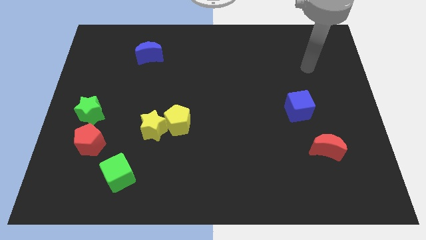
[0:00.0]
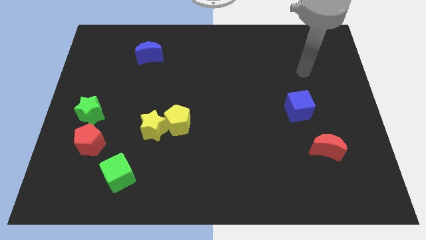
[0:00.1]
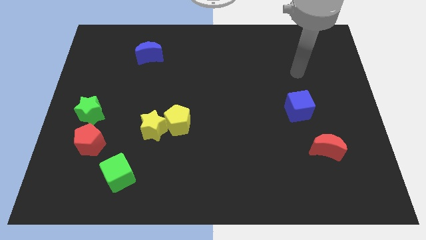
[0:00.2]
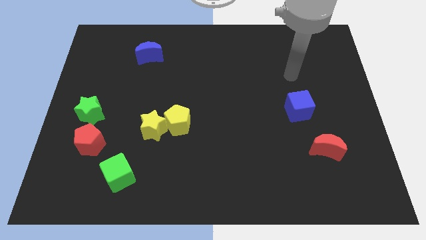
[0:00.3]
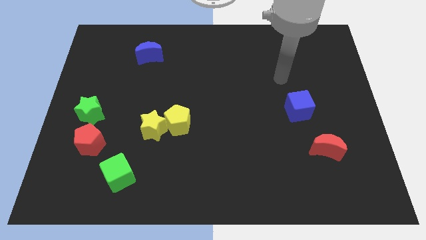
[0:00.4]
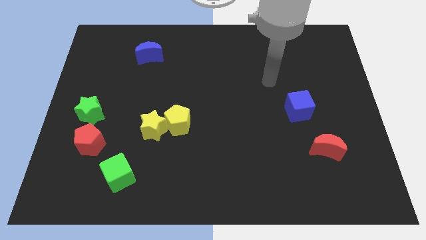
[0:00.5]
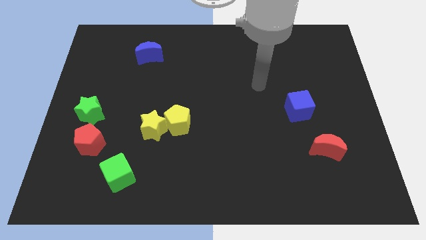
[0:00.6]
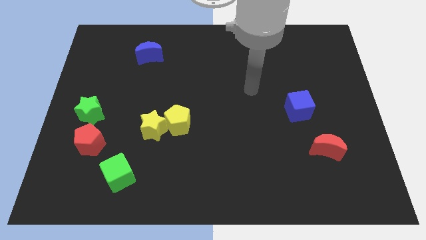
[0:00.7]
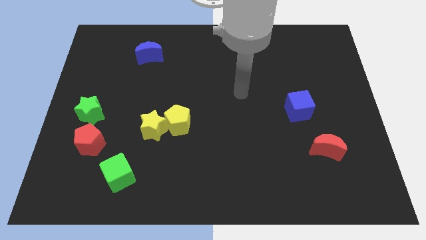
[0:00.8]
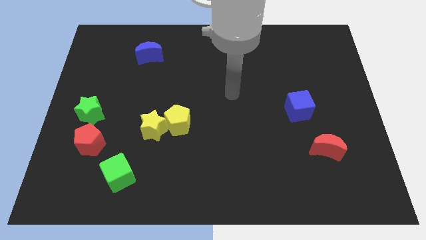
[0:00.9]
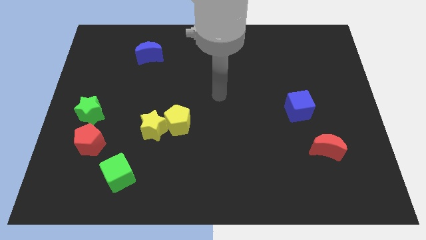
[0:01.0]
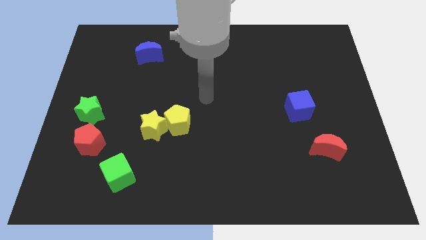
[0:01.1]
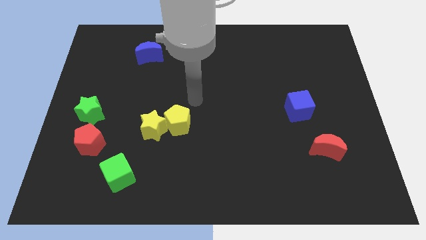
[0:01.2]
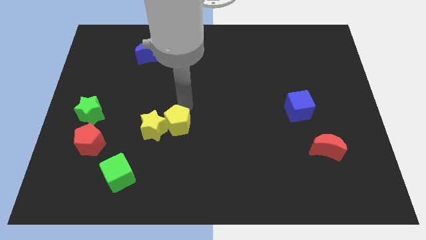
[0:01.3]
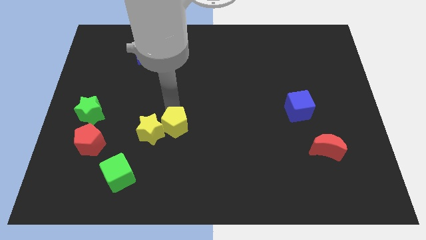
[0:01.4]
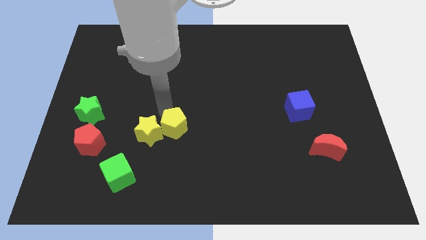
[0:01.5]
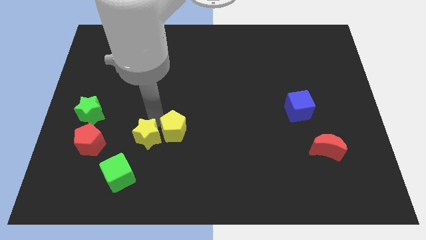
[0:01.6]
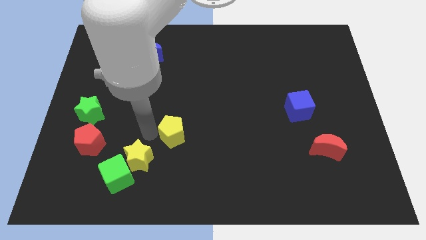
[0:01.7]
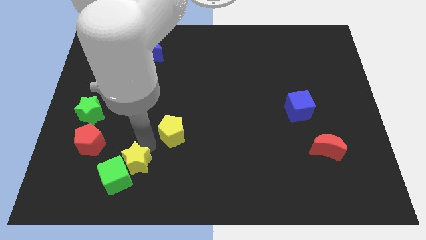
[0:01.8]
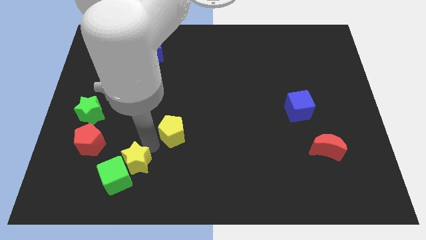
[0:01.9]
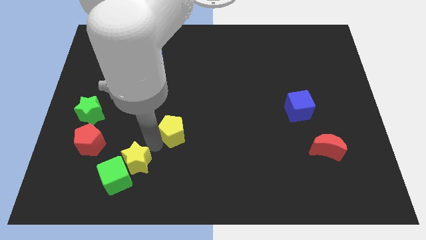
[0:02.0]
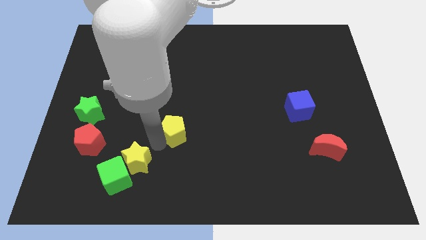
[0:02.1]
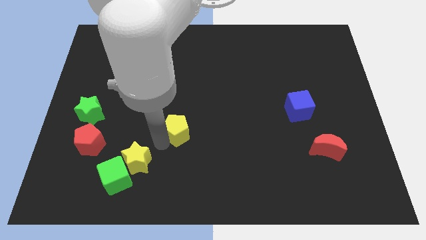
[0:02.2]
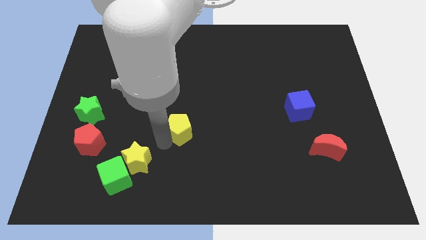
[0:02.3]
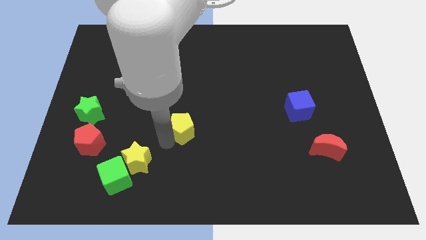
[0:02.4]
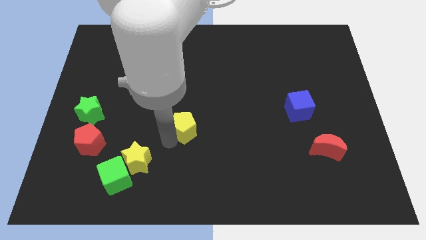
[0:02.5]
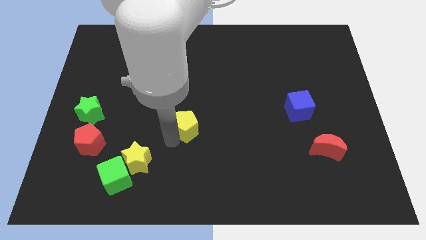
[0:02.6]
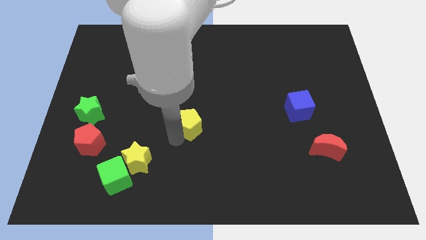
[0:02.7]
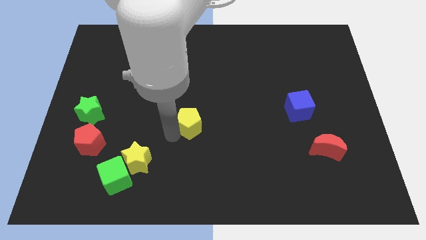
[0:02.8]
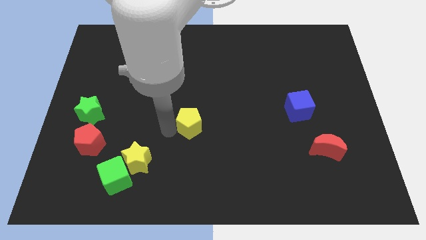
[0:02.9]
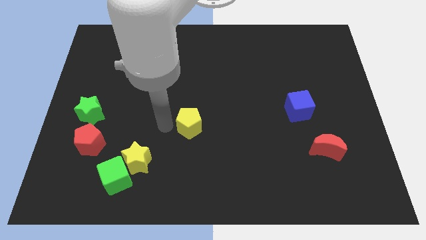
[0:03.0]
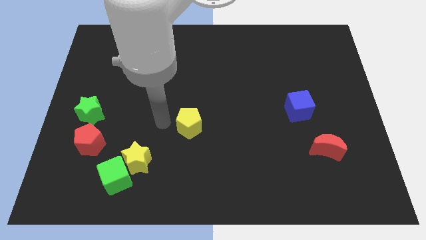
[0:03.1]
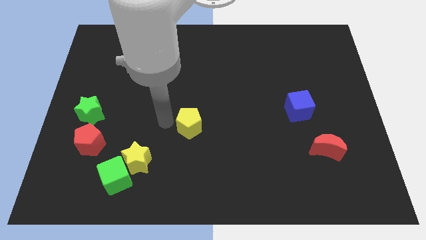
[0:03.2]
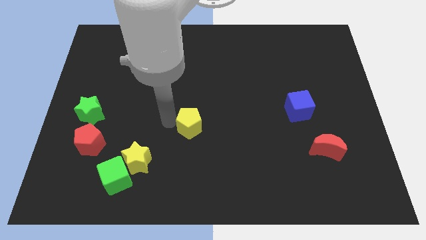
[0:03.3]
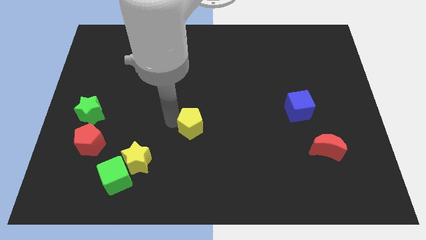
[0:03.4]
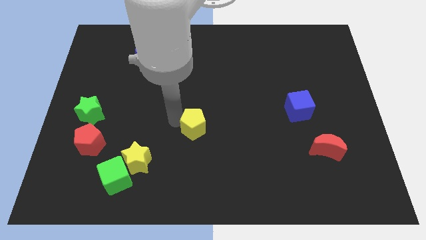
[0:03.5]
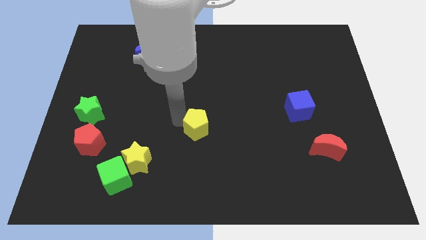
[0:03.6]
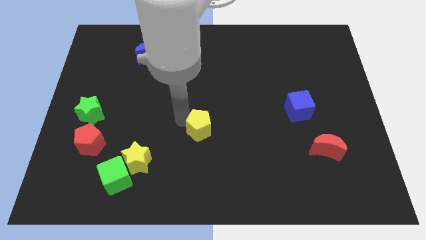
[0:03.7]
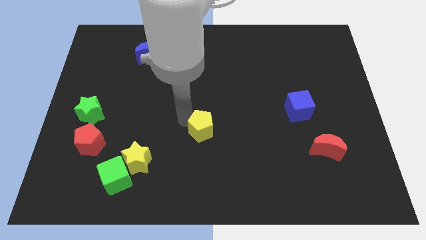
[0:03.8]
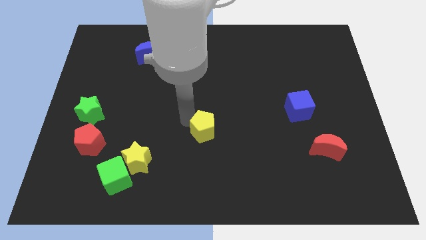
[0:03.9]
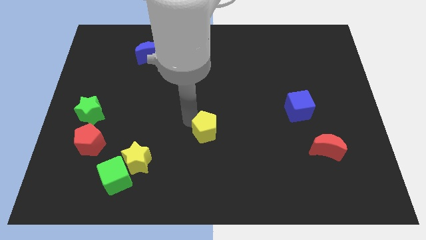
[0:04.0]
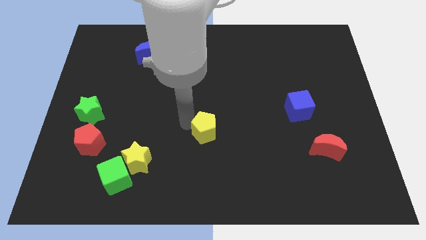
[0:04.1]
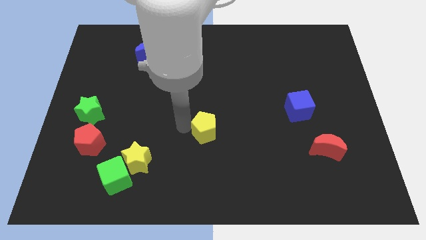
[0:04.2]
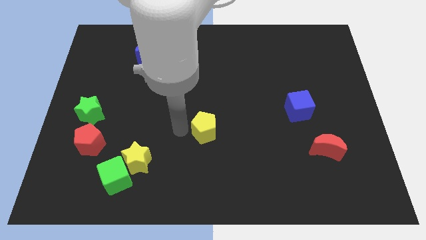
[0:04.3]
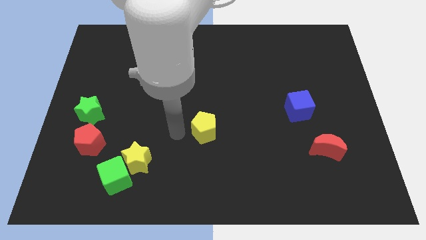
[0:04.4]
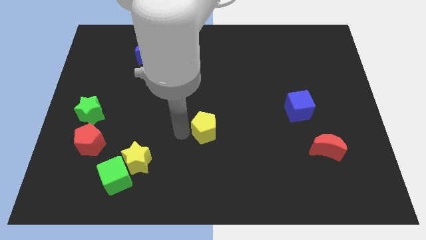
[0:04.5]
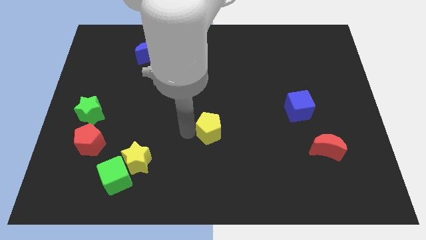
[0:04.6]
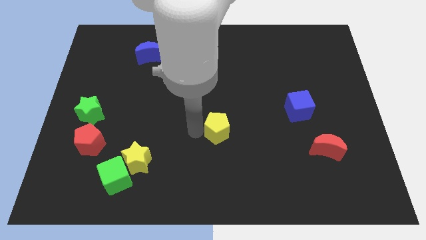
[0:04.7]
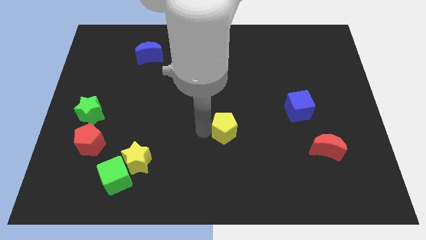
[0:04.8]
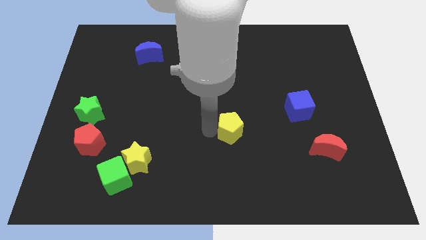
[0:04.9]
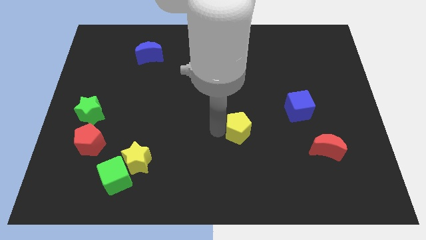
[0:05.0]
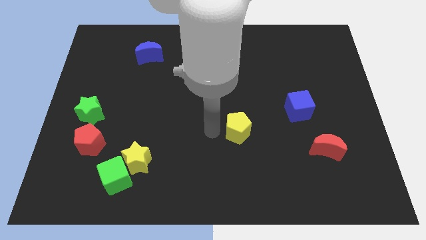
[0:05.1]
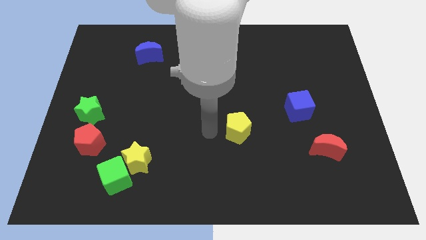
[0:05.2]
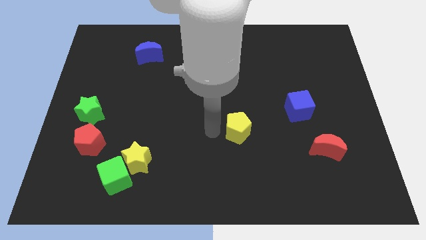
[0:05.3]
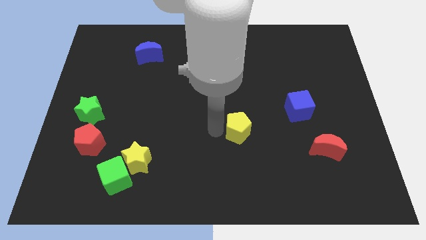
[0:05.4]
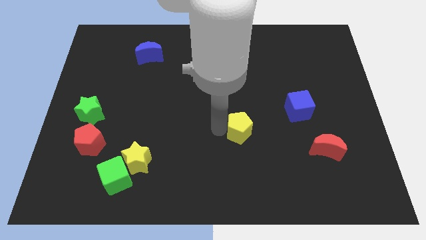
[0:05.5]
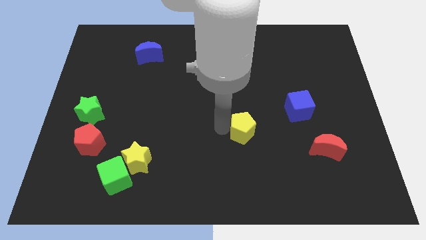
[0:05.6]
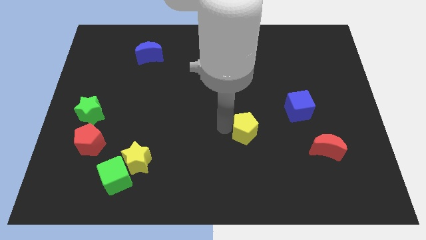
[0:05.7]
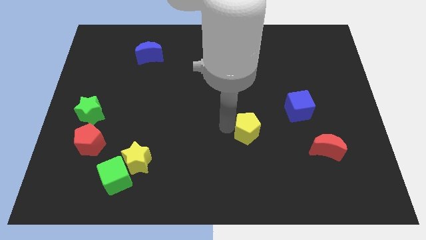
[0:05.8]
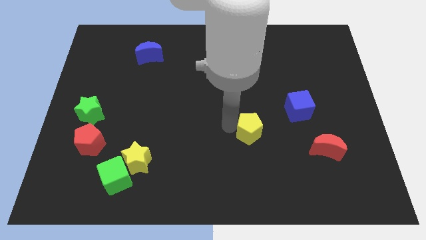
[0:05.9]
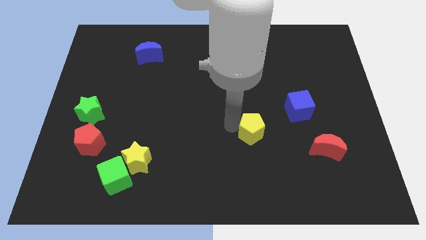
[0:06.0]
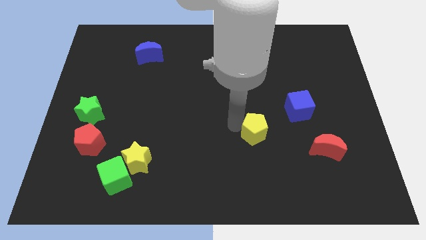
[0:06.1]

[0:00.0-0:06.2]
move the yellow pentagon to the bottom left of the blue cube

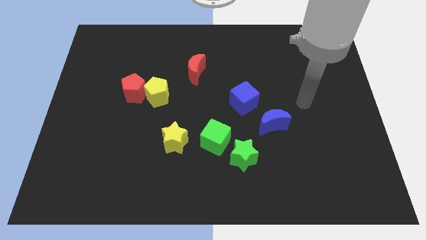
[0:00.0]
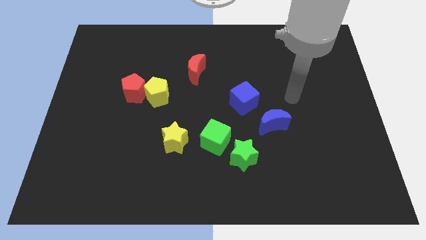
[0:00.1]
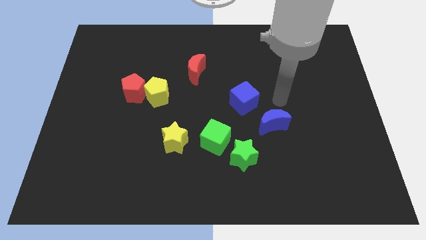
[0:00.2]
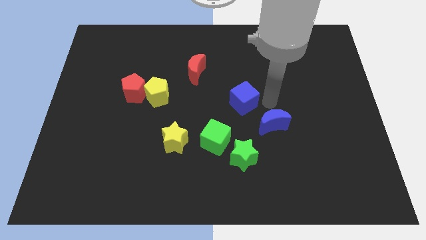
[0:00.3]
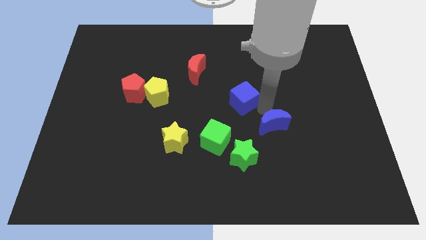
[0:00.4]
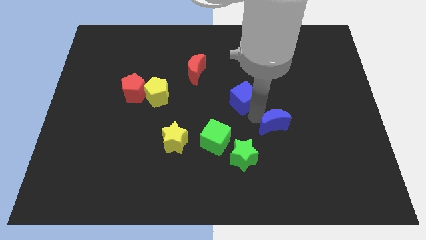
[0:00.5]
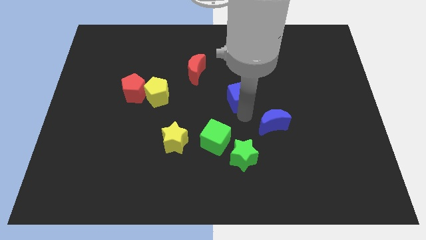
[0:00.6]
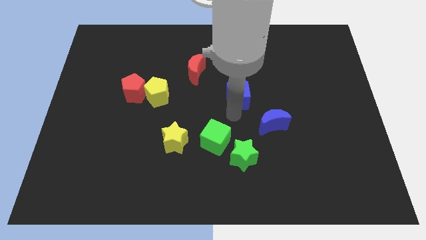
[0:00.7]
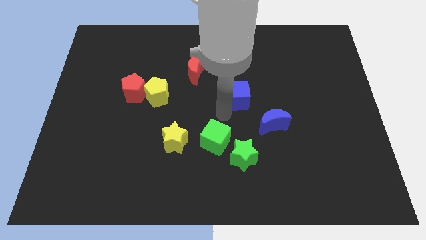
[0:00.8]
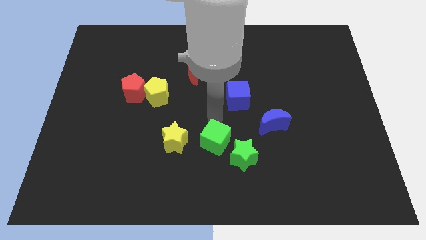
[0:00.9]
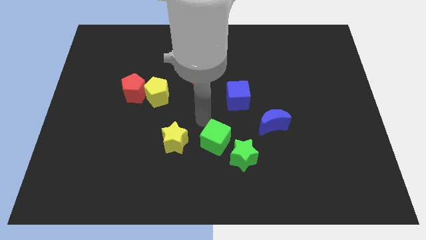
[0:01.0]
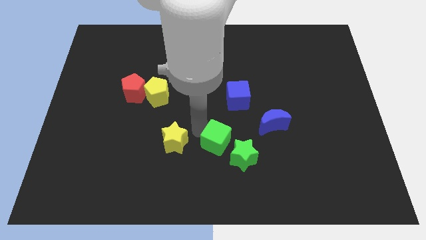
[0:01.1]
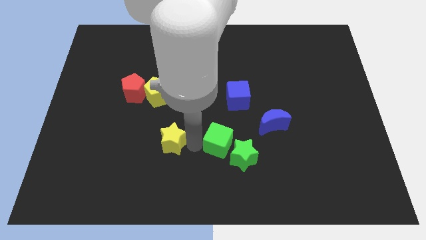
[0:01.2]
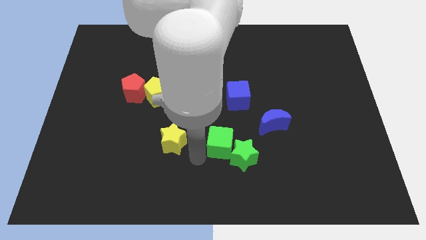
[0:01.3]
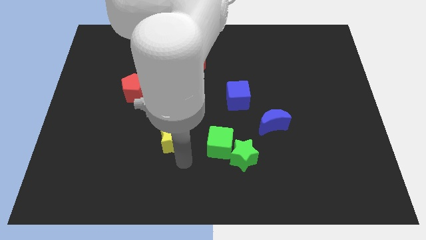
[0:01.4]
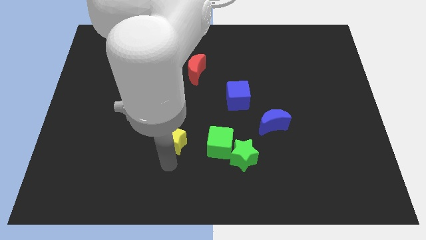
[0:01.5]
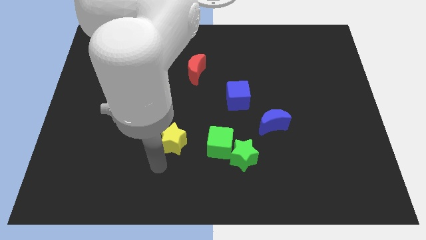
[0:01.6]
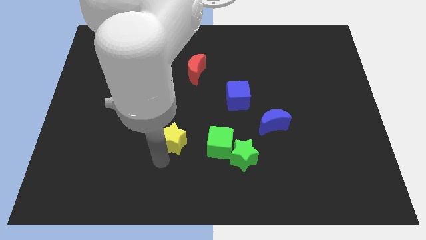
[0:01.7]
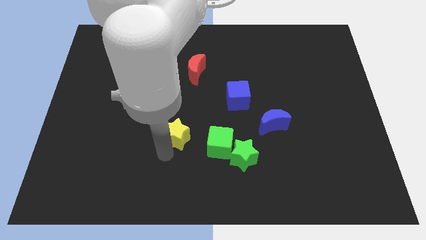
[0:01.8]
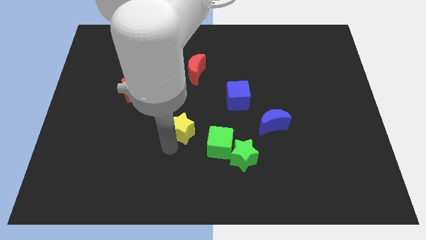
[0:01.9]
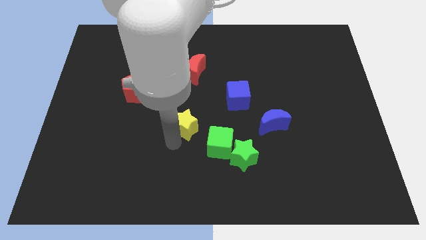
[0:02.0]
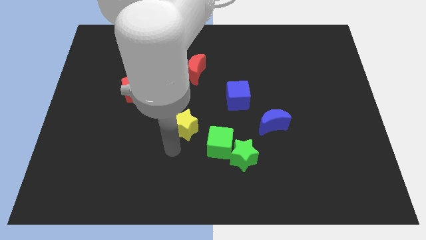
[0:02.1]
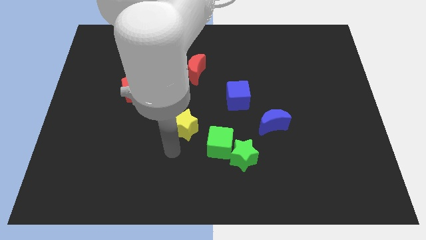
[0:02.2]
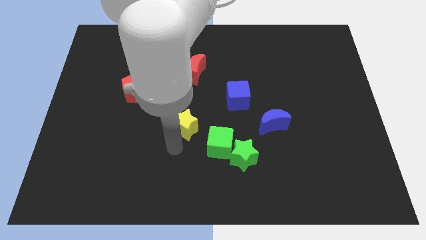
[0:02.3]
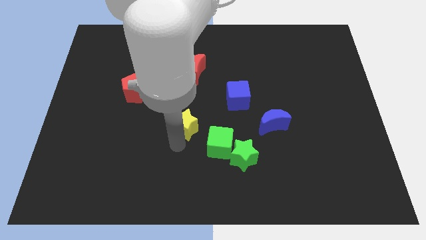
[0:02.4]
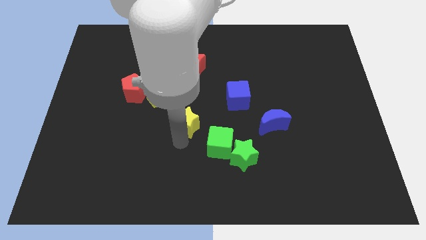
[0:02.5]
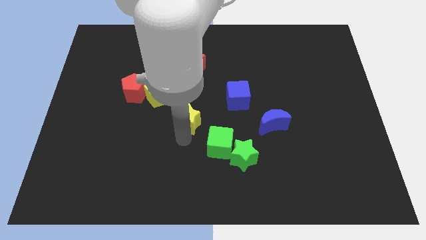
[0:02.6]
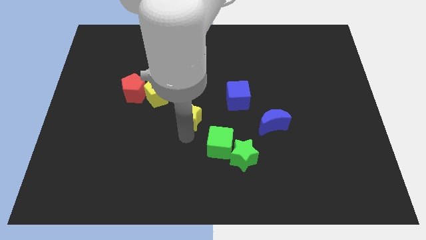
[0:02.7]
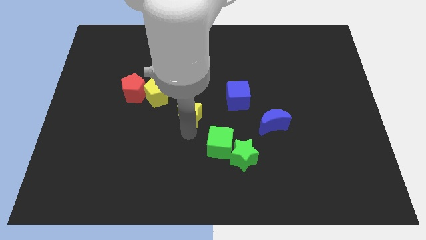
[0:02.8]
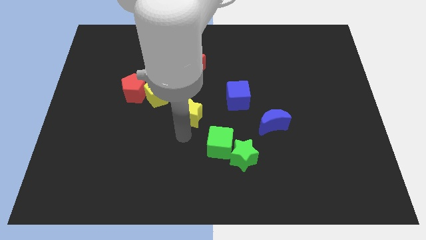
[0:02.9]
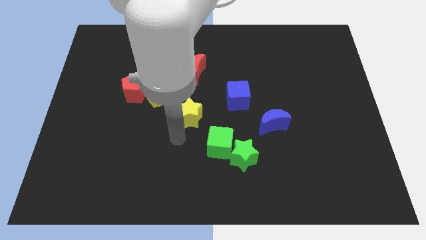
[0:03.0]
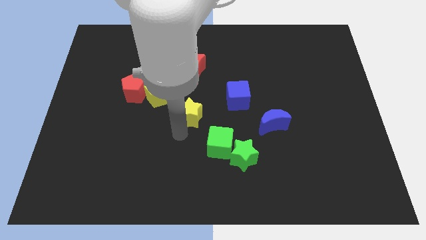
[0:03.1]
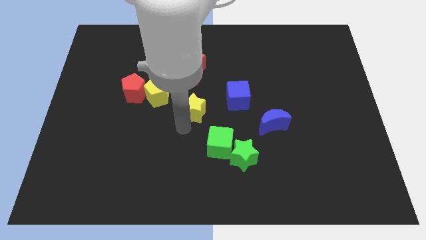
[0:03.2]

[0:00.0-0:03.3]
push the yellow star right of the yellow pentagon
